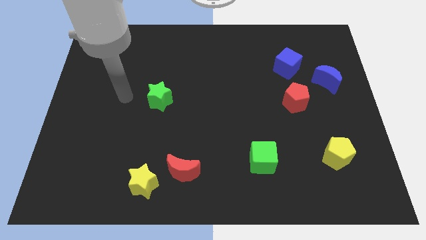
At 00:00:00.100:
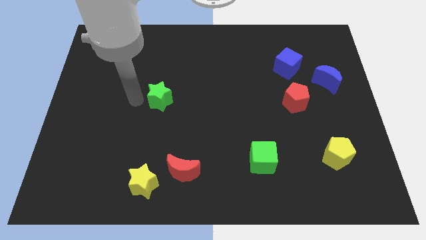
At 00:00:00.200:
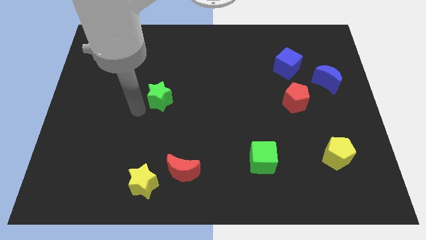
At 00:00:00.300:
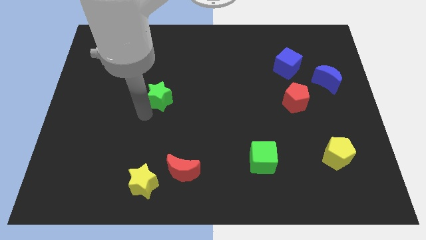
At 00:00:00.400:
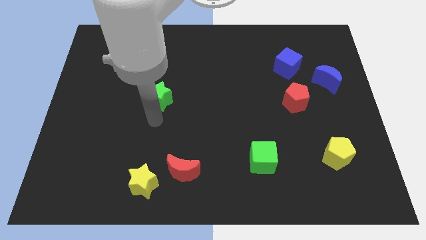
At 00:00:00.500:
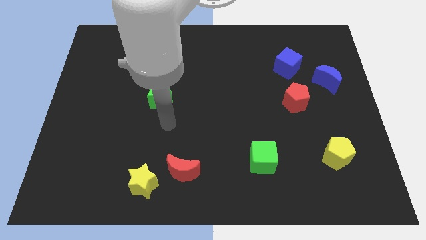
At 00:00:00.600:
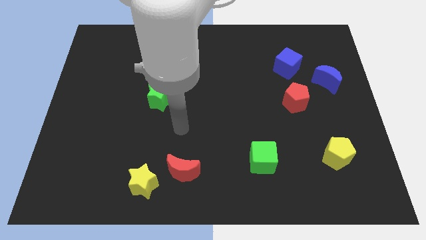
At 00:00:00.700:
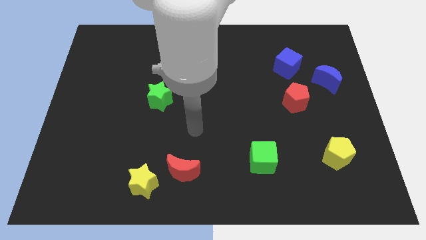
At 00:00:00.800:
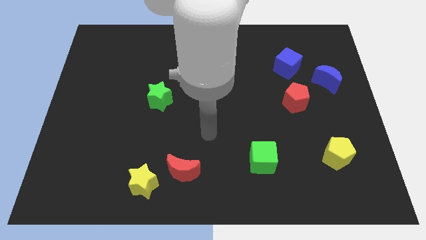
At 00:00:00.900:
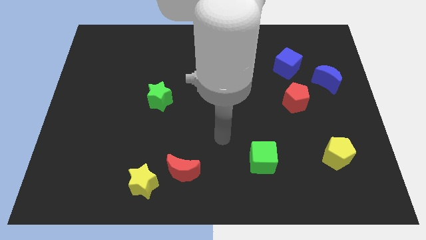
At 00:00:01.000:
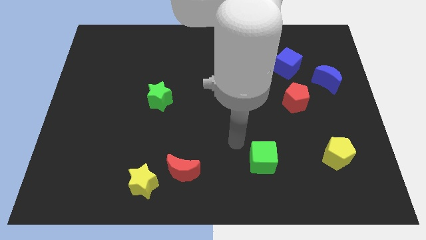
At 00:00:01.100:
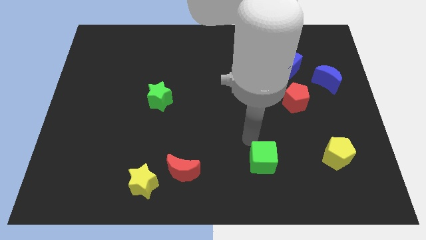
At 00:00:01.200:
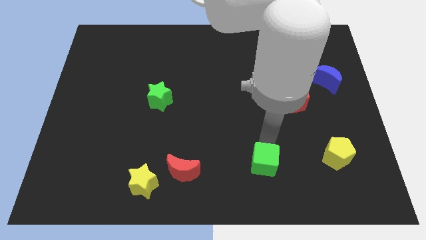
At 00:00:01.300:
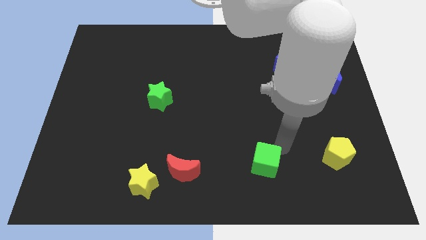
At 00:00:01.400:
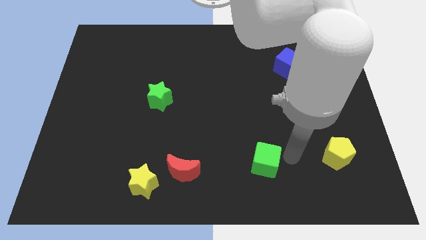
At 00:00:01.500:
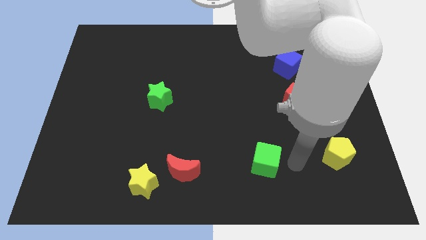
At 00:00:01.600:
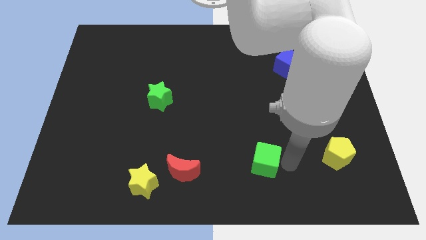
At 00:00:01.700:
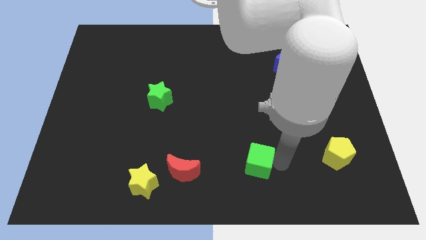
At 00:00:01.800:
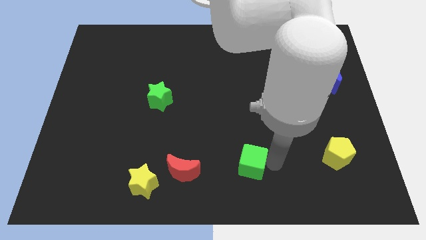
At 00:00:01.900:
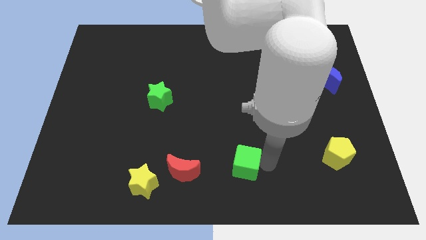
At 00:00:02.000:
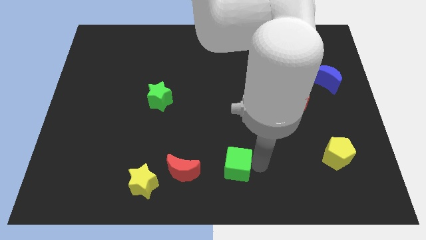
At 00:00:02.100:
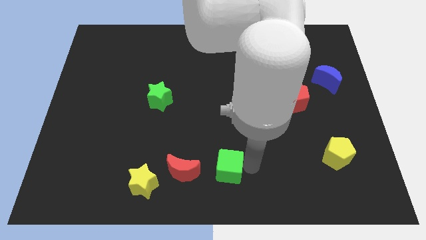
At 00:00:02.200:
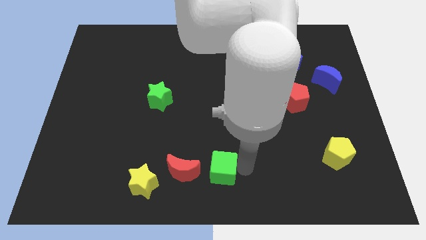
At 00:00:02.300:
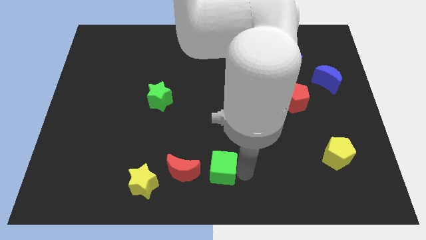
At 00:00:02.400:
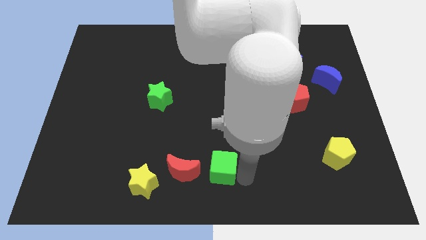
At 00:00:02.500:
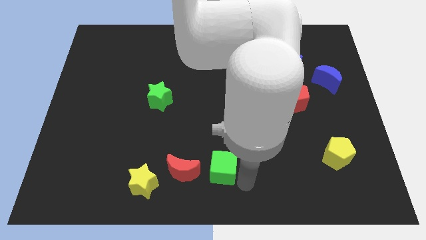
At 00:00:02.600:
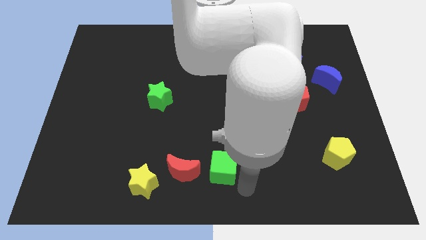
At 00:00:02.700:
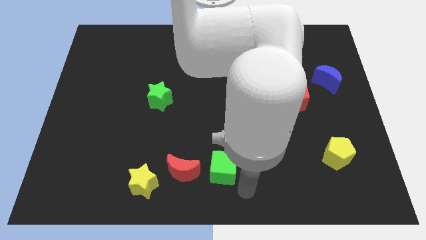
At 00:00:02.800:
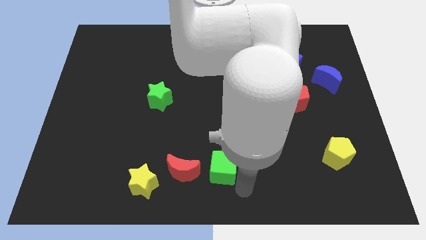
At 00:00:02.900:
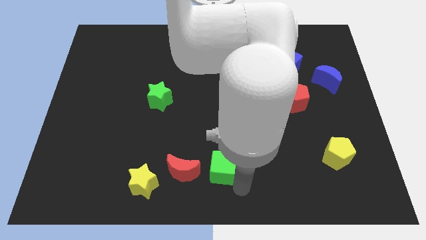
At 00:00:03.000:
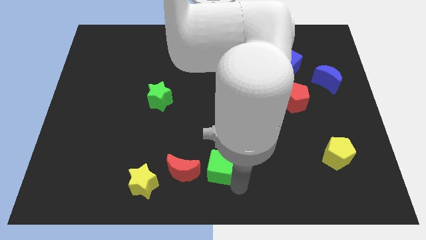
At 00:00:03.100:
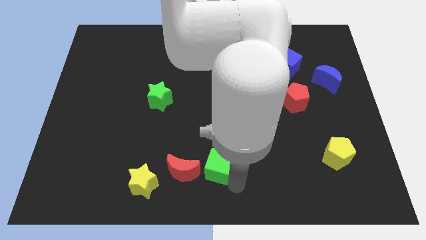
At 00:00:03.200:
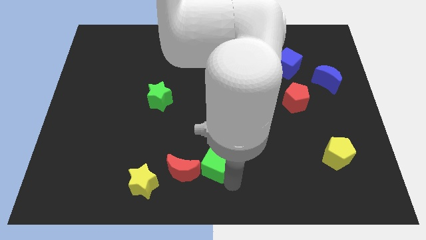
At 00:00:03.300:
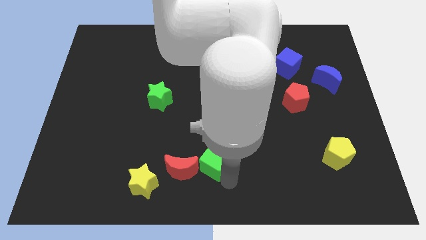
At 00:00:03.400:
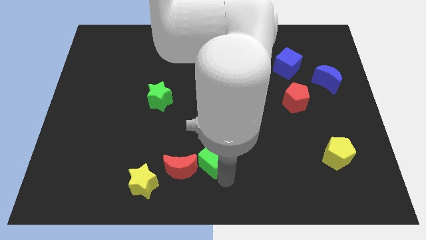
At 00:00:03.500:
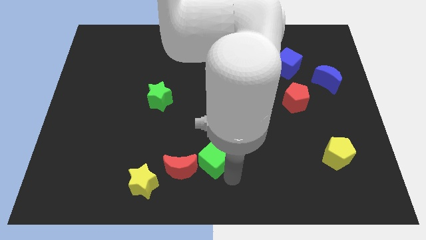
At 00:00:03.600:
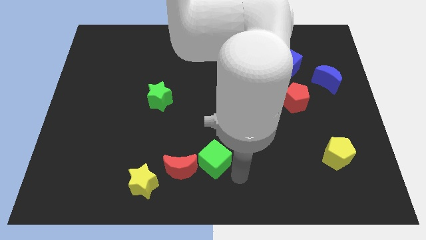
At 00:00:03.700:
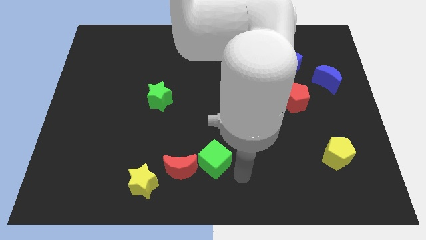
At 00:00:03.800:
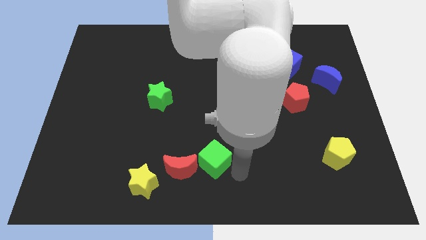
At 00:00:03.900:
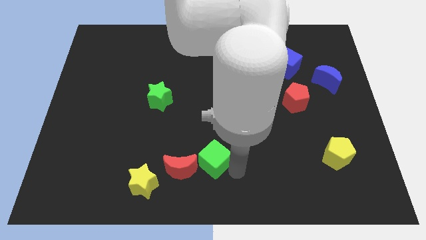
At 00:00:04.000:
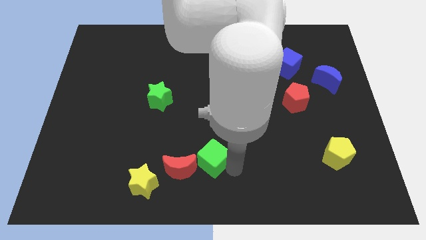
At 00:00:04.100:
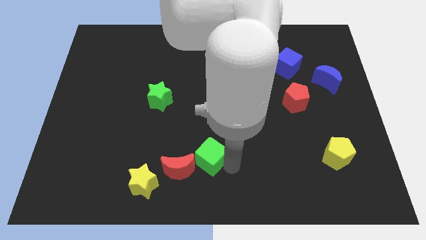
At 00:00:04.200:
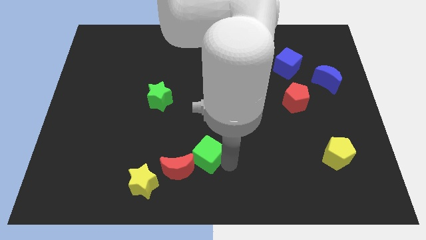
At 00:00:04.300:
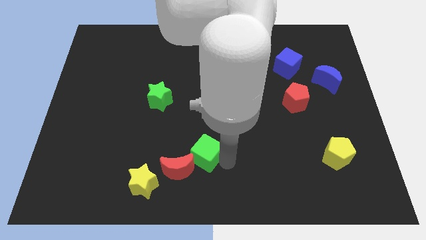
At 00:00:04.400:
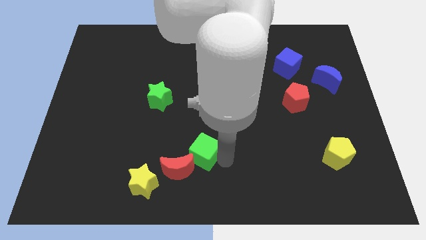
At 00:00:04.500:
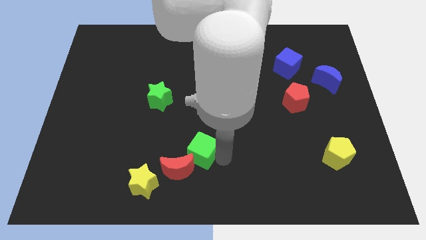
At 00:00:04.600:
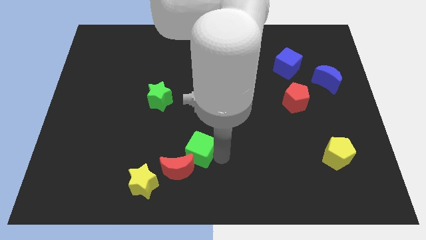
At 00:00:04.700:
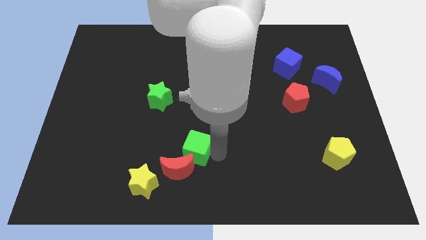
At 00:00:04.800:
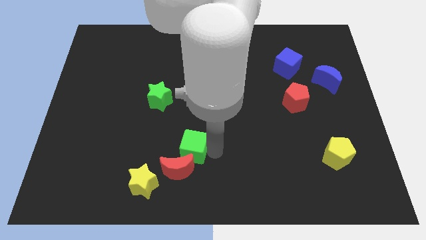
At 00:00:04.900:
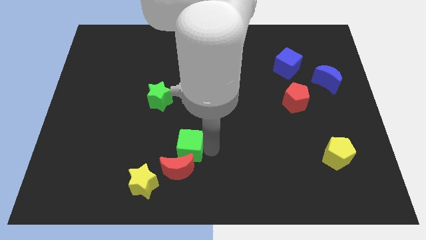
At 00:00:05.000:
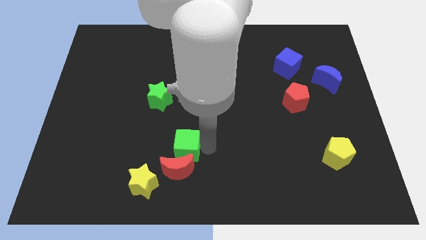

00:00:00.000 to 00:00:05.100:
slide the green cube diagonally up and to the left of the red moon

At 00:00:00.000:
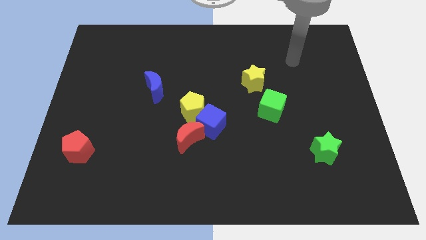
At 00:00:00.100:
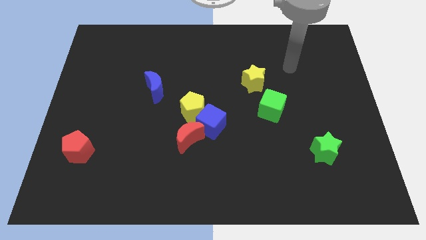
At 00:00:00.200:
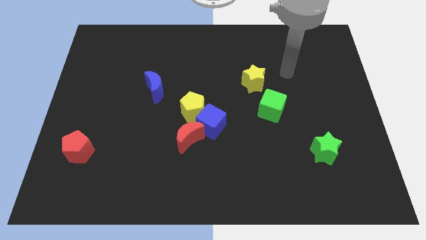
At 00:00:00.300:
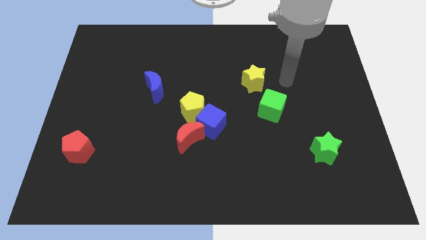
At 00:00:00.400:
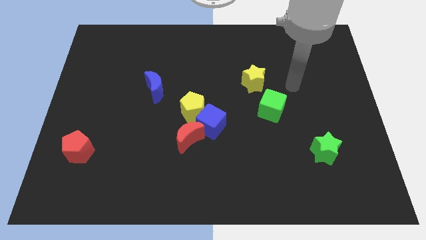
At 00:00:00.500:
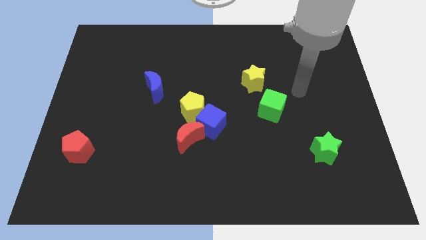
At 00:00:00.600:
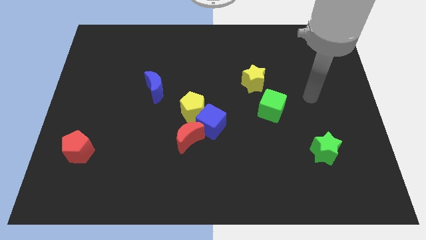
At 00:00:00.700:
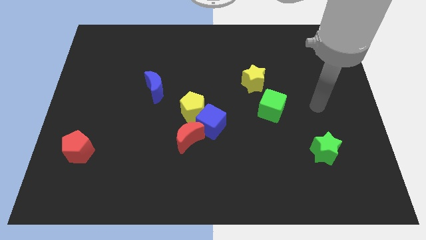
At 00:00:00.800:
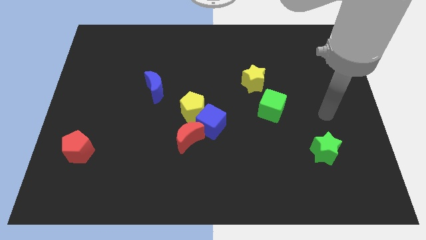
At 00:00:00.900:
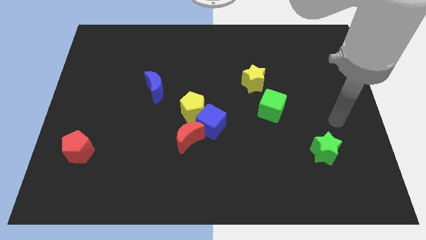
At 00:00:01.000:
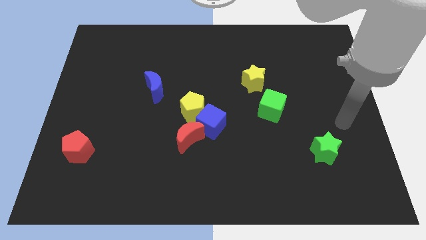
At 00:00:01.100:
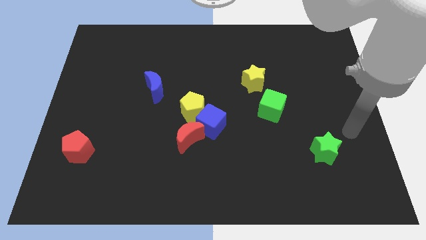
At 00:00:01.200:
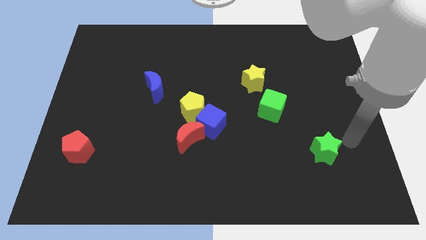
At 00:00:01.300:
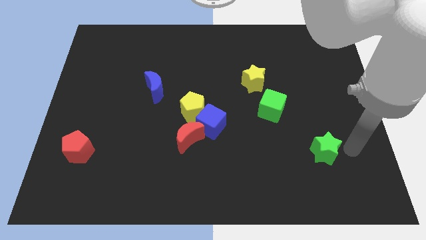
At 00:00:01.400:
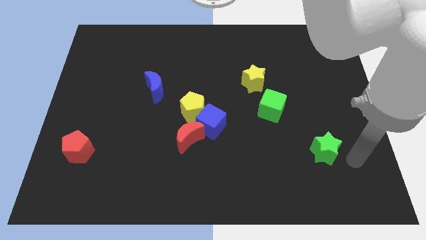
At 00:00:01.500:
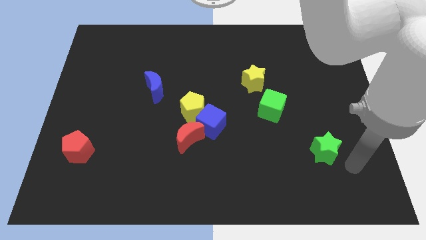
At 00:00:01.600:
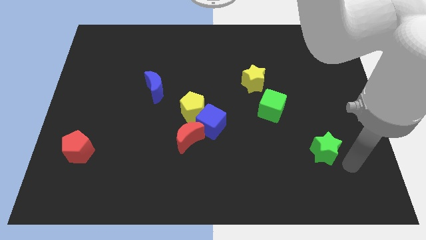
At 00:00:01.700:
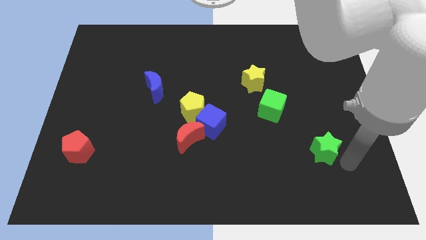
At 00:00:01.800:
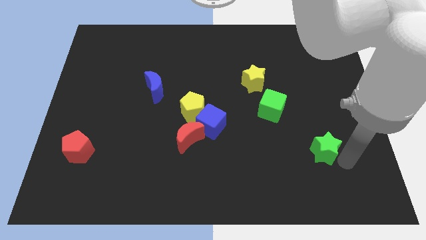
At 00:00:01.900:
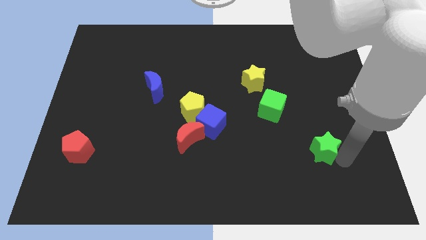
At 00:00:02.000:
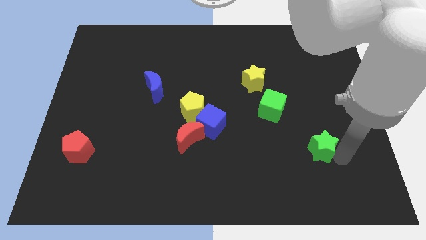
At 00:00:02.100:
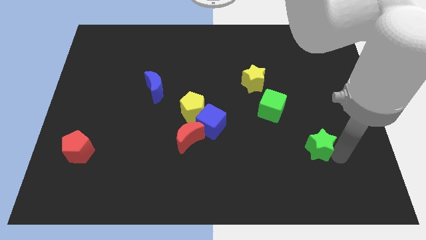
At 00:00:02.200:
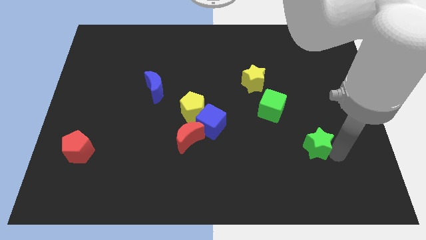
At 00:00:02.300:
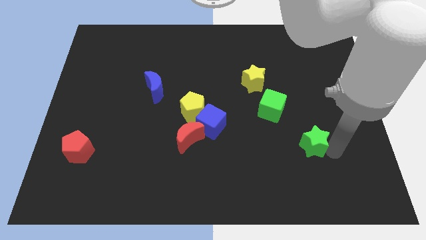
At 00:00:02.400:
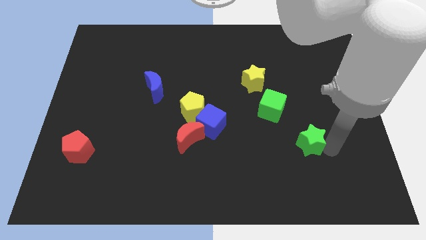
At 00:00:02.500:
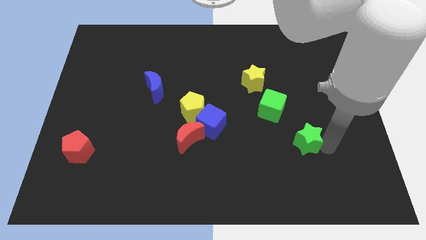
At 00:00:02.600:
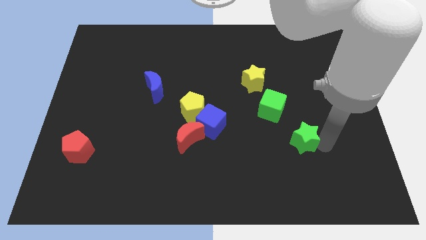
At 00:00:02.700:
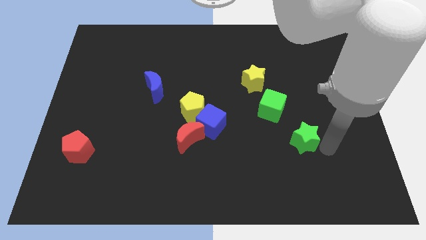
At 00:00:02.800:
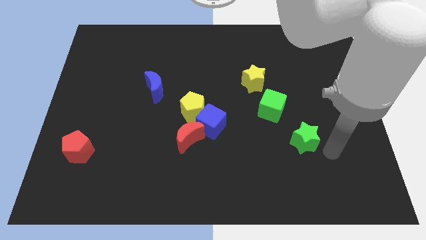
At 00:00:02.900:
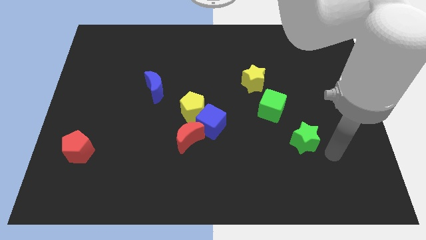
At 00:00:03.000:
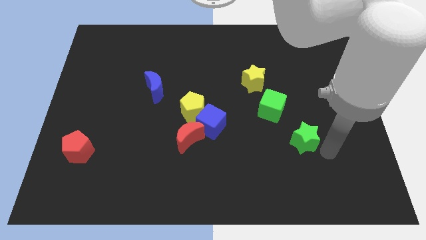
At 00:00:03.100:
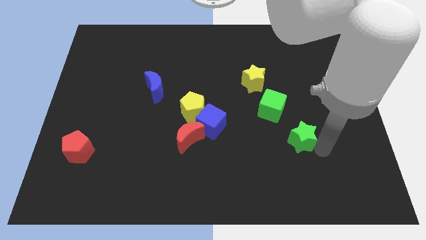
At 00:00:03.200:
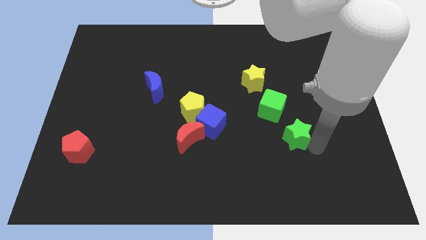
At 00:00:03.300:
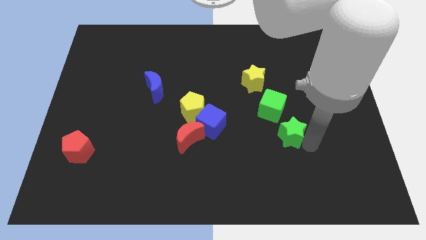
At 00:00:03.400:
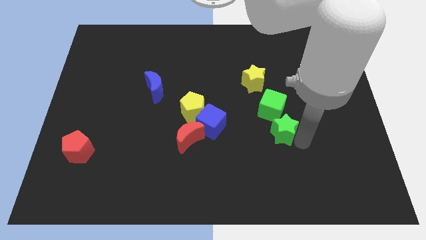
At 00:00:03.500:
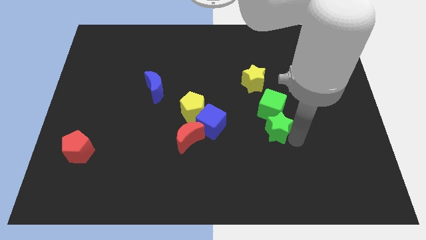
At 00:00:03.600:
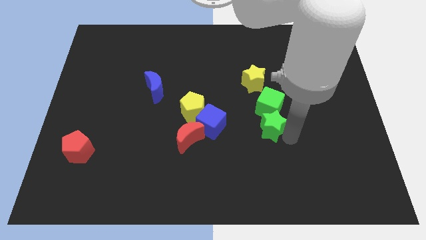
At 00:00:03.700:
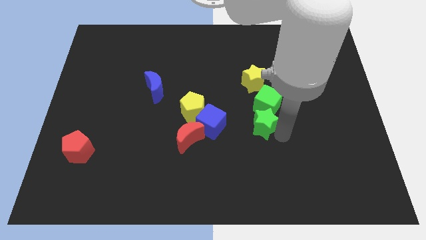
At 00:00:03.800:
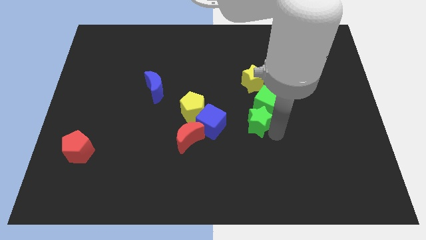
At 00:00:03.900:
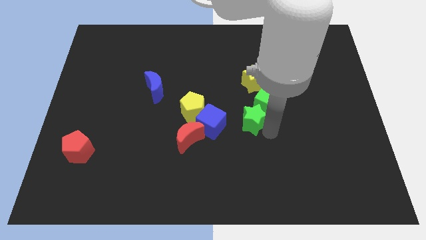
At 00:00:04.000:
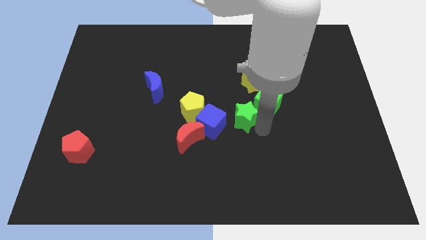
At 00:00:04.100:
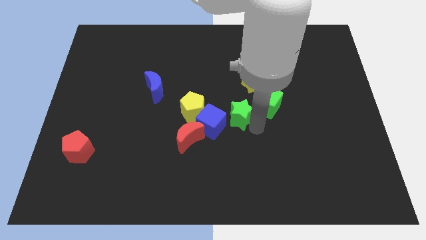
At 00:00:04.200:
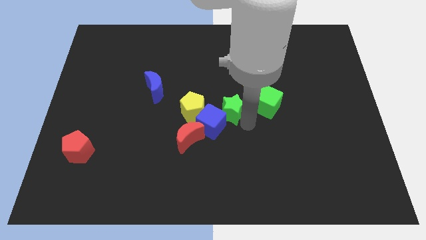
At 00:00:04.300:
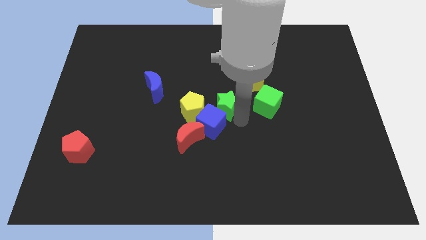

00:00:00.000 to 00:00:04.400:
move the green star diagonally up and to the right of the yellow pentagon
